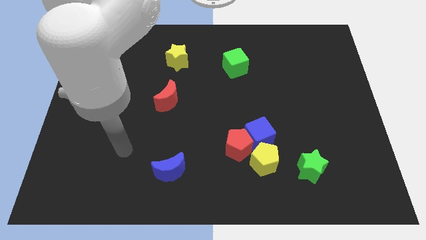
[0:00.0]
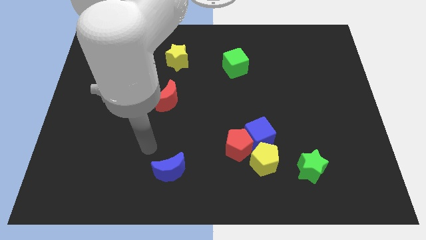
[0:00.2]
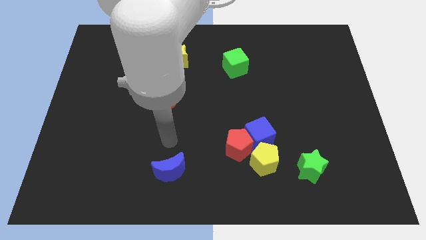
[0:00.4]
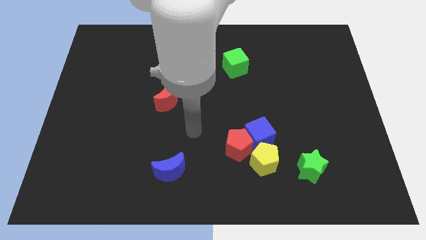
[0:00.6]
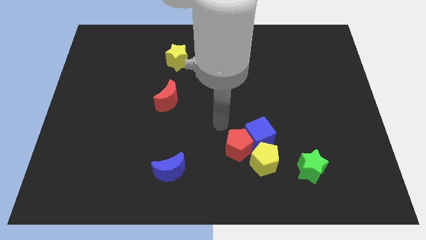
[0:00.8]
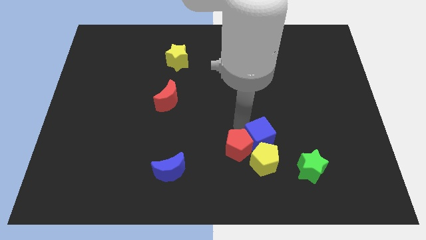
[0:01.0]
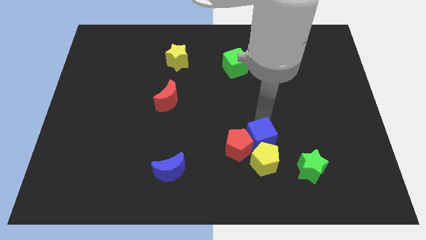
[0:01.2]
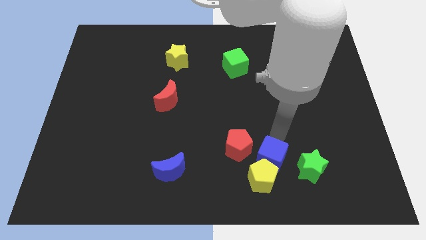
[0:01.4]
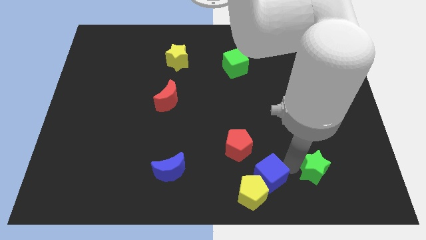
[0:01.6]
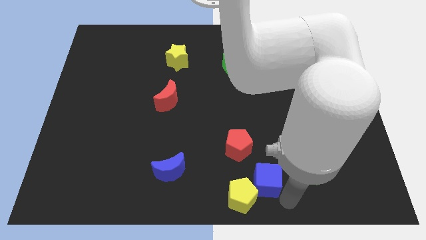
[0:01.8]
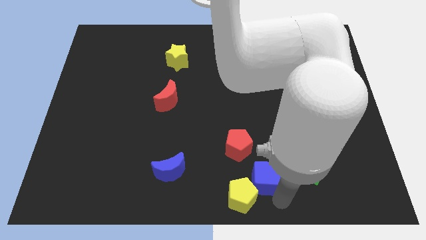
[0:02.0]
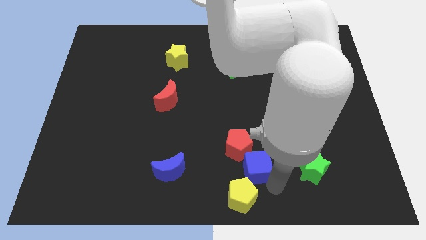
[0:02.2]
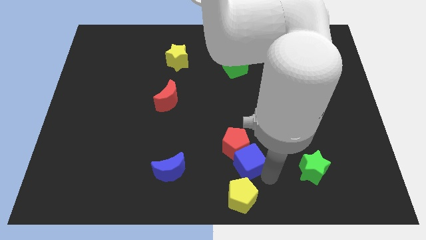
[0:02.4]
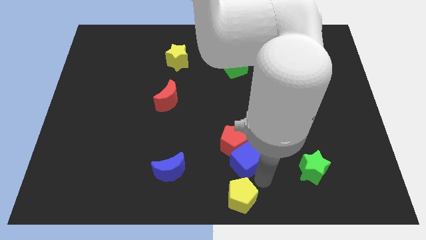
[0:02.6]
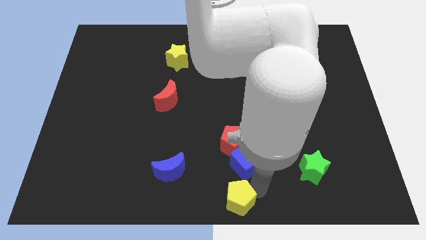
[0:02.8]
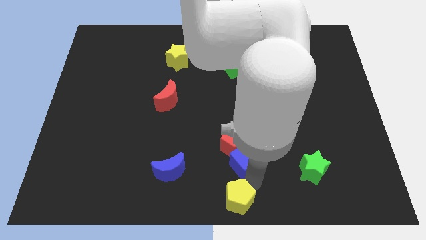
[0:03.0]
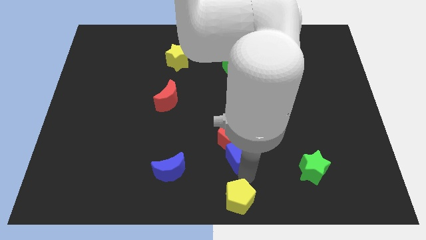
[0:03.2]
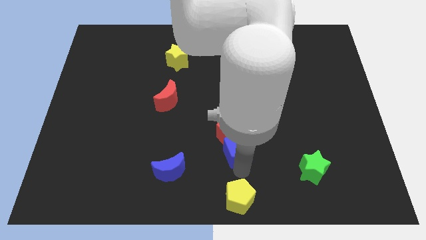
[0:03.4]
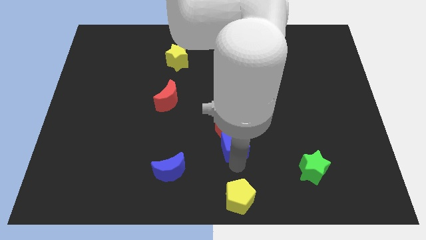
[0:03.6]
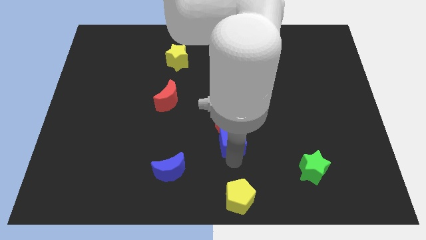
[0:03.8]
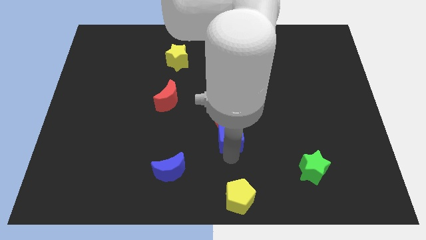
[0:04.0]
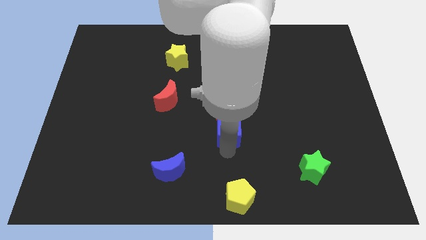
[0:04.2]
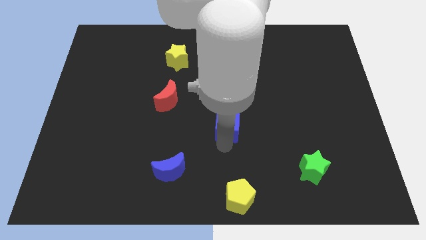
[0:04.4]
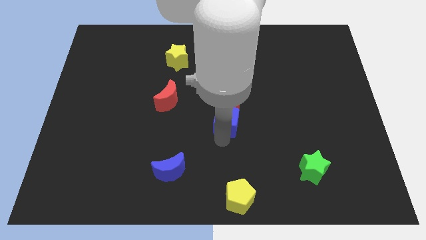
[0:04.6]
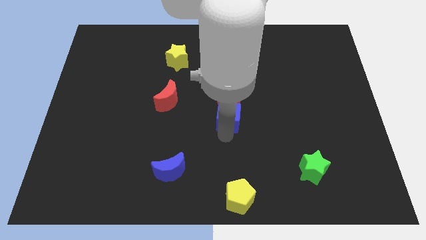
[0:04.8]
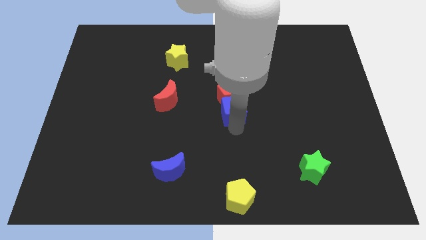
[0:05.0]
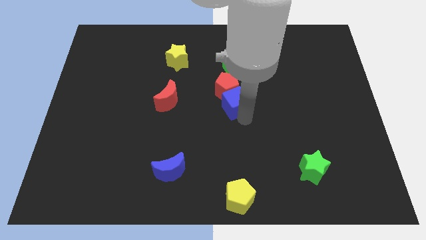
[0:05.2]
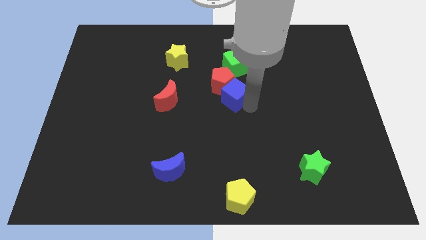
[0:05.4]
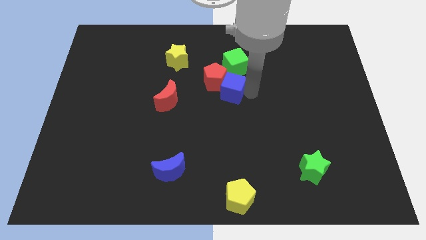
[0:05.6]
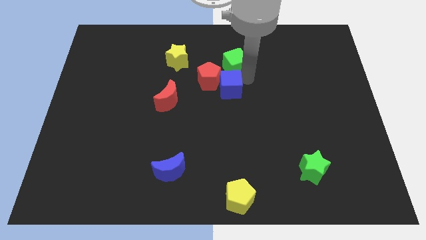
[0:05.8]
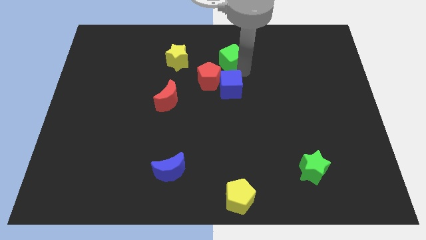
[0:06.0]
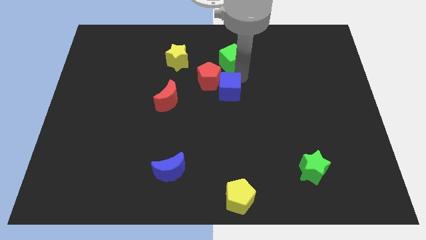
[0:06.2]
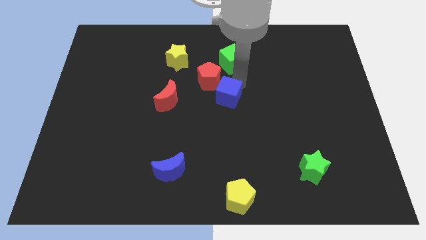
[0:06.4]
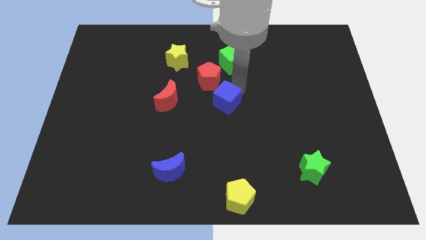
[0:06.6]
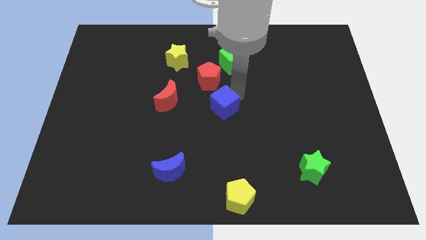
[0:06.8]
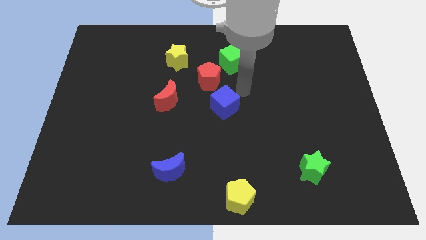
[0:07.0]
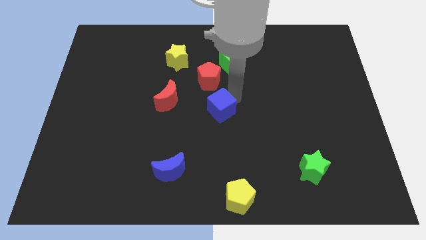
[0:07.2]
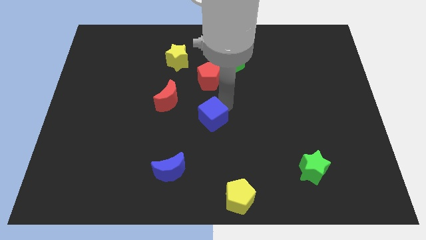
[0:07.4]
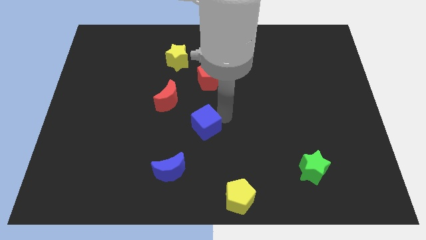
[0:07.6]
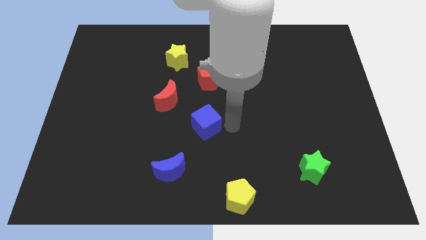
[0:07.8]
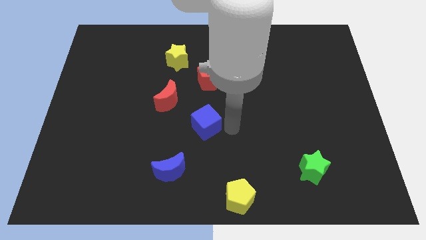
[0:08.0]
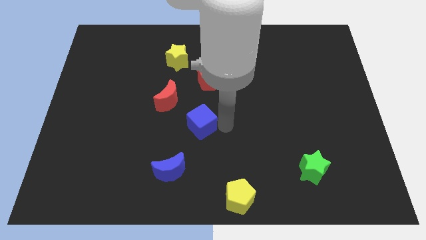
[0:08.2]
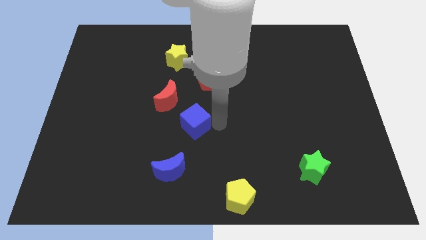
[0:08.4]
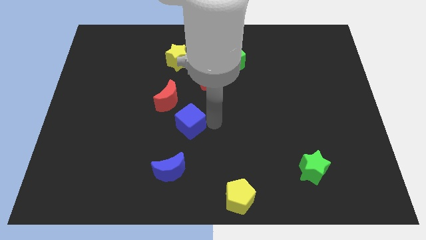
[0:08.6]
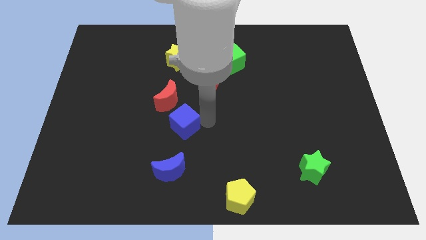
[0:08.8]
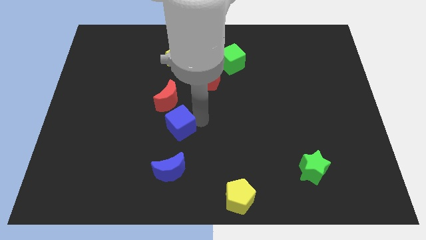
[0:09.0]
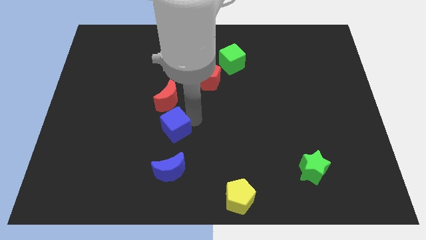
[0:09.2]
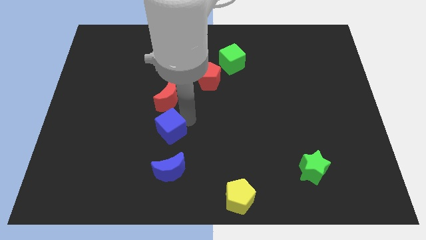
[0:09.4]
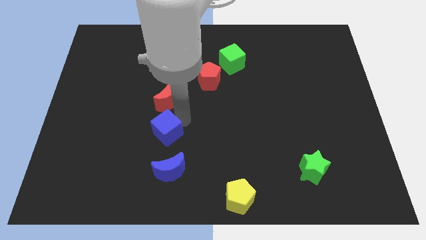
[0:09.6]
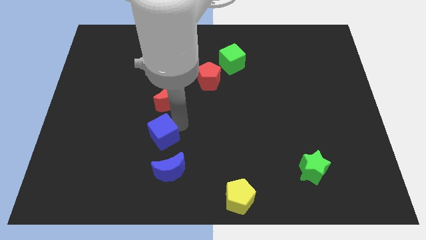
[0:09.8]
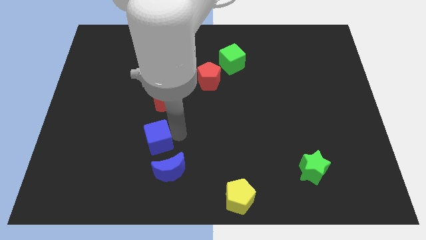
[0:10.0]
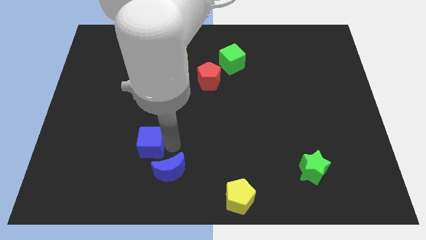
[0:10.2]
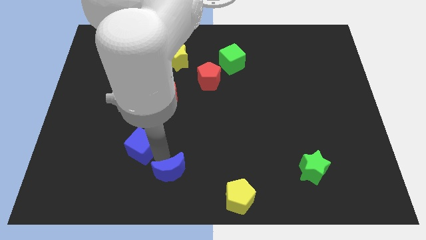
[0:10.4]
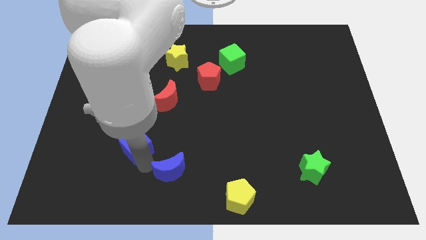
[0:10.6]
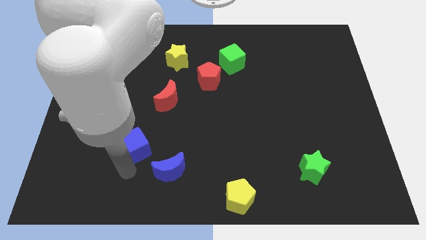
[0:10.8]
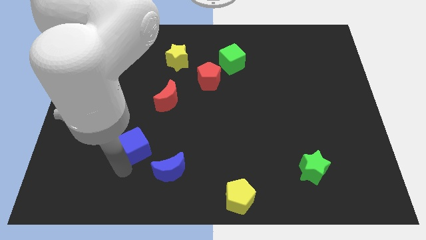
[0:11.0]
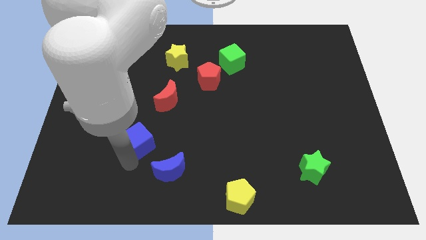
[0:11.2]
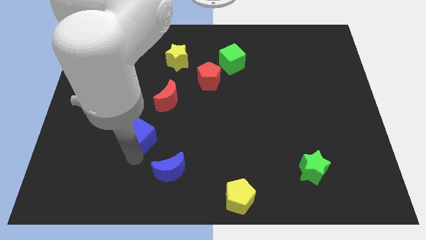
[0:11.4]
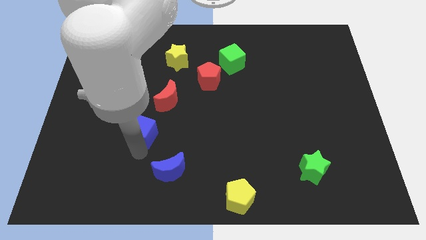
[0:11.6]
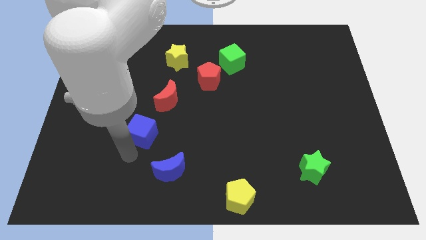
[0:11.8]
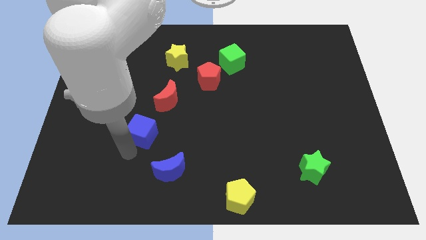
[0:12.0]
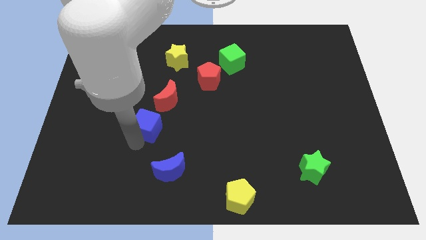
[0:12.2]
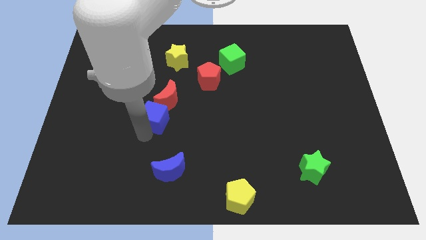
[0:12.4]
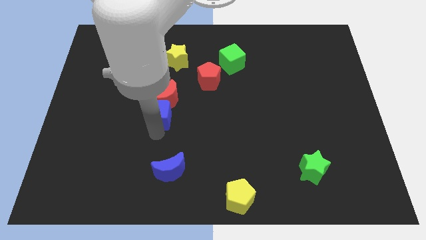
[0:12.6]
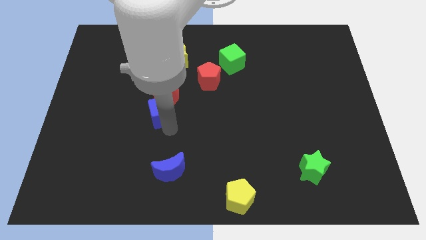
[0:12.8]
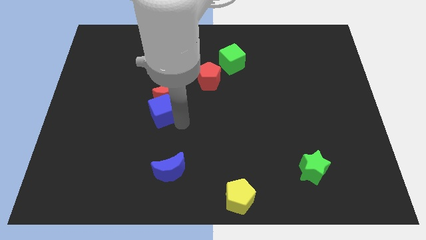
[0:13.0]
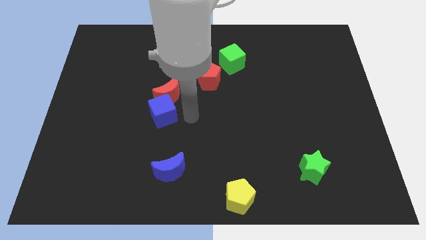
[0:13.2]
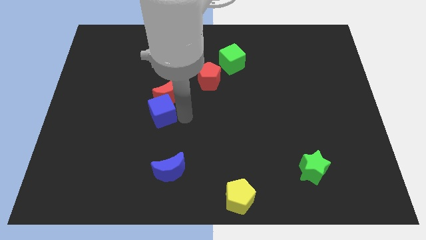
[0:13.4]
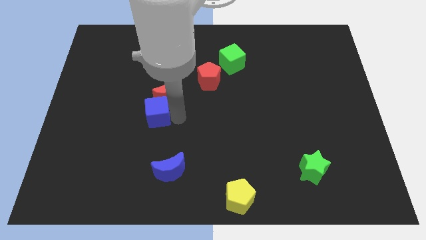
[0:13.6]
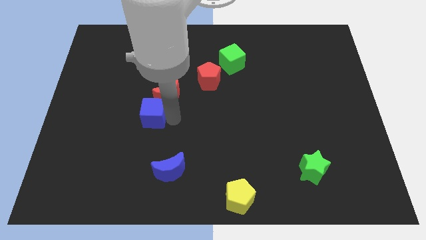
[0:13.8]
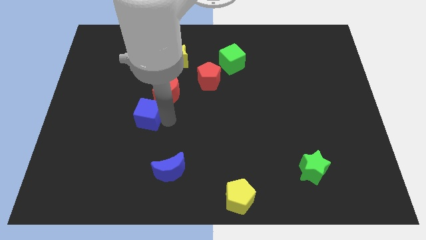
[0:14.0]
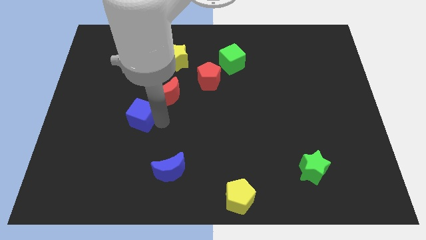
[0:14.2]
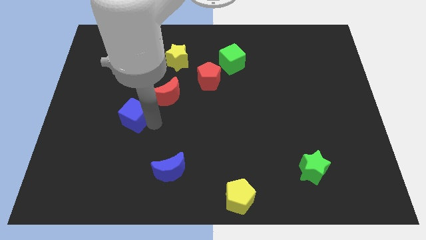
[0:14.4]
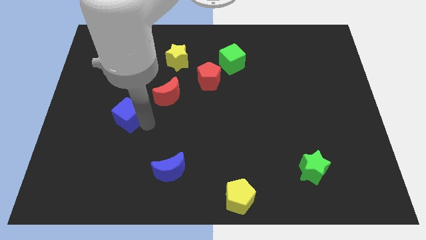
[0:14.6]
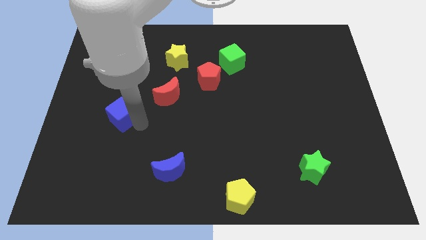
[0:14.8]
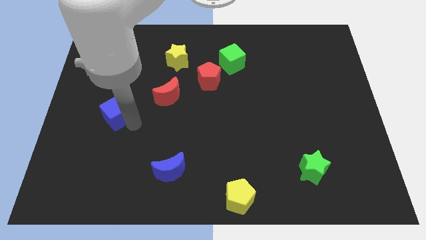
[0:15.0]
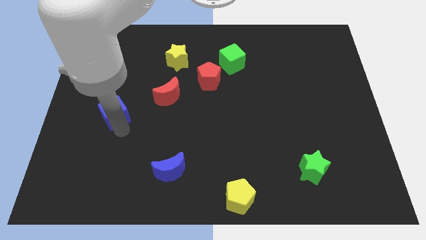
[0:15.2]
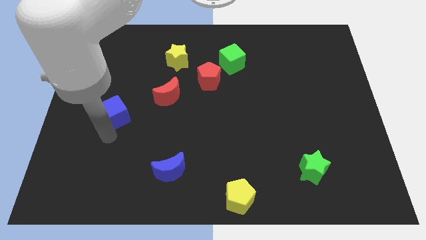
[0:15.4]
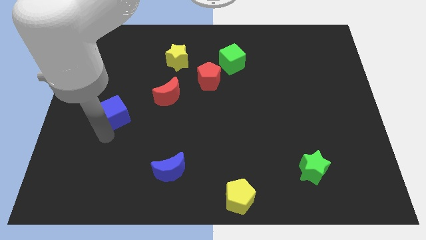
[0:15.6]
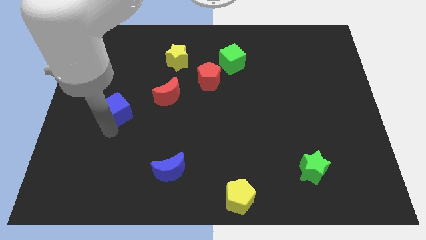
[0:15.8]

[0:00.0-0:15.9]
move the blue cube to the left side of the red moon

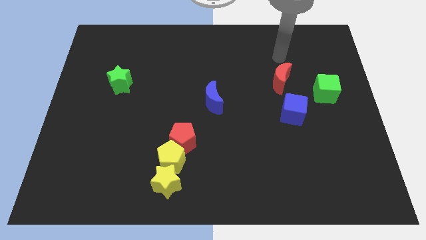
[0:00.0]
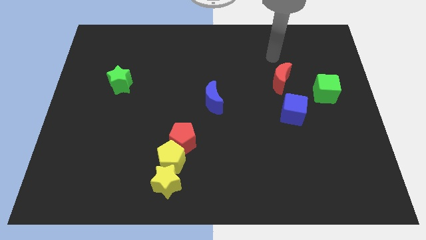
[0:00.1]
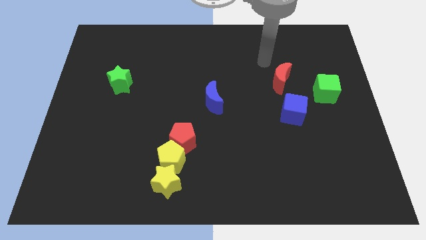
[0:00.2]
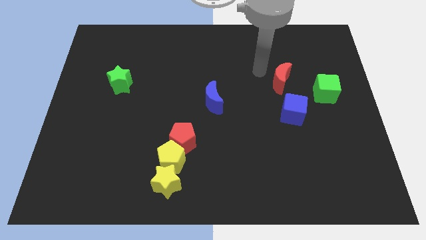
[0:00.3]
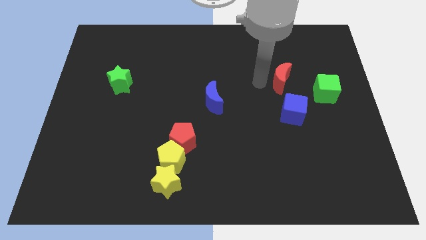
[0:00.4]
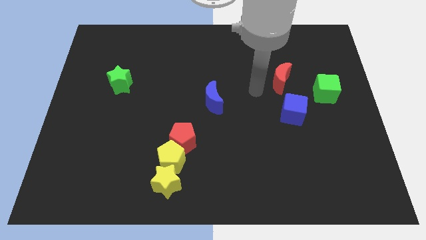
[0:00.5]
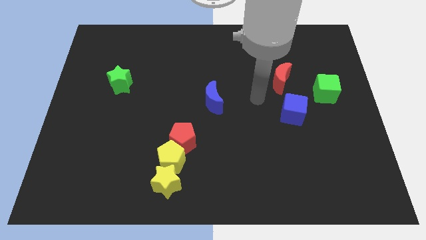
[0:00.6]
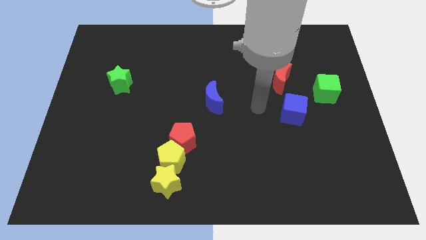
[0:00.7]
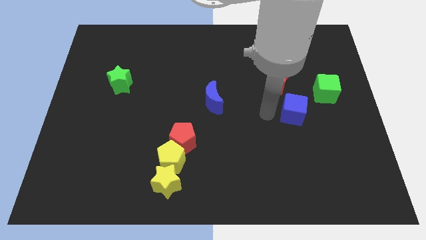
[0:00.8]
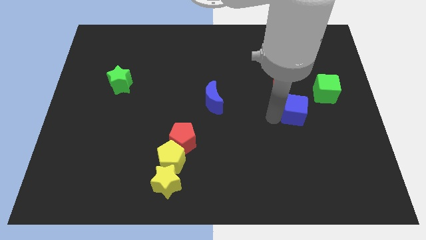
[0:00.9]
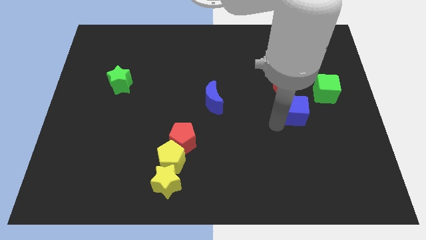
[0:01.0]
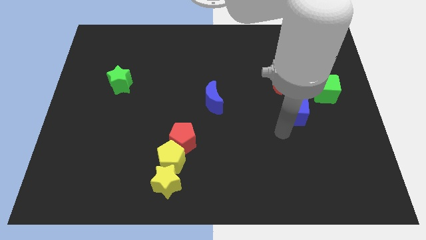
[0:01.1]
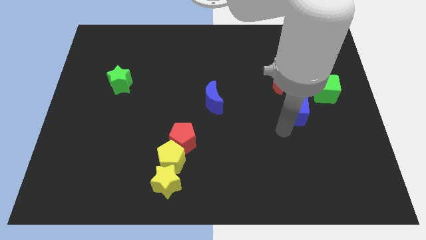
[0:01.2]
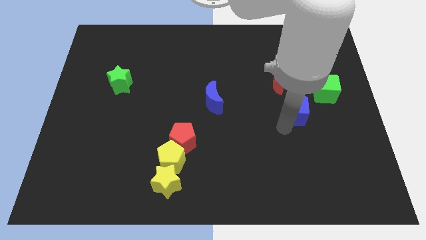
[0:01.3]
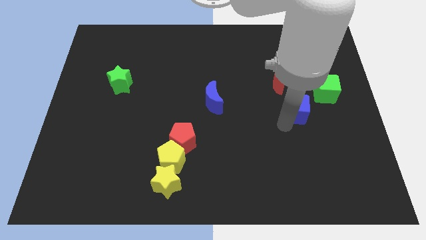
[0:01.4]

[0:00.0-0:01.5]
move the blue cube to the bottom right side of the red moon
